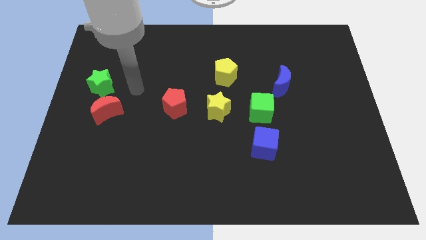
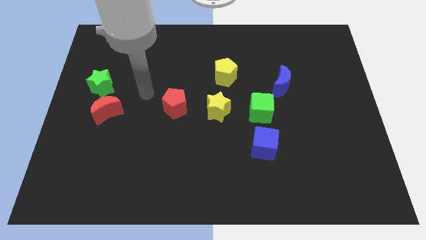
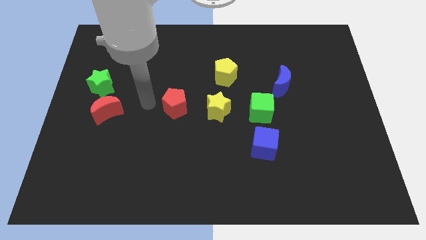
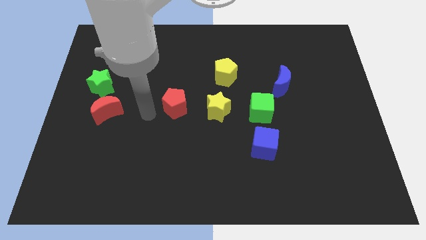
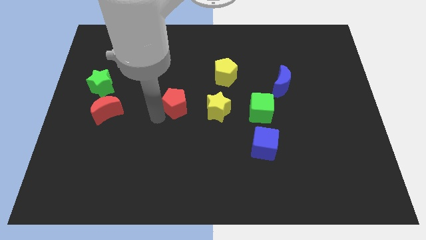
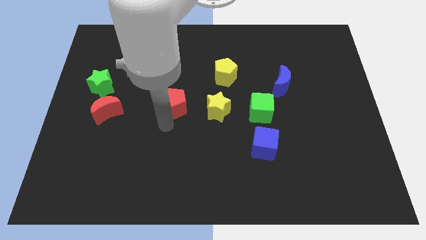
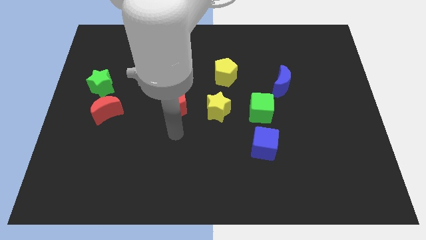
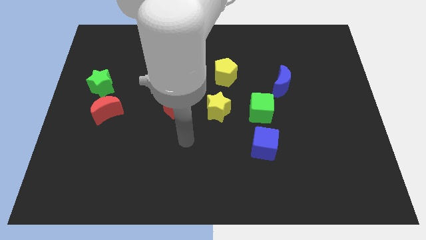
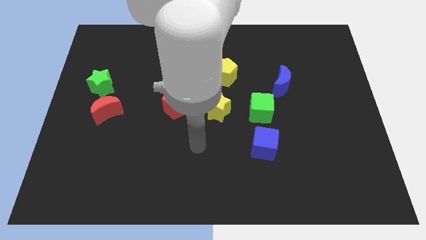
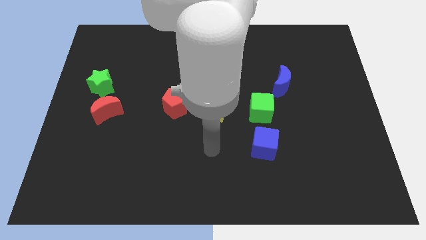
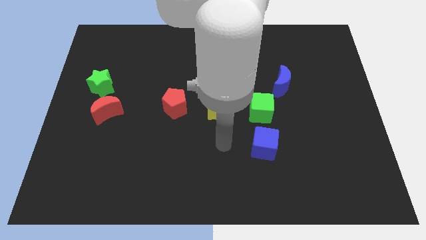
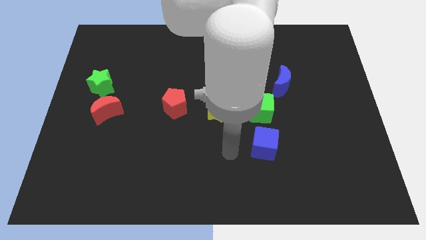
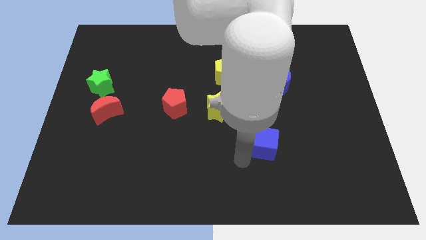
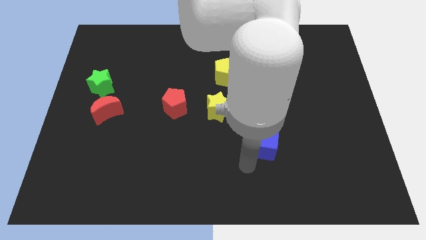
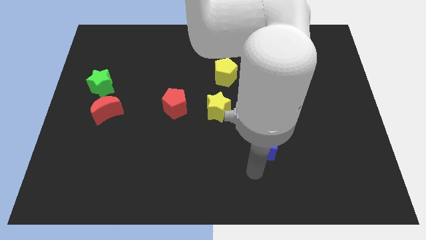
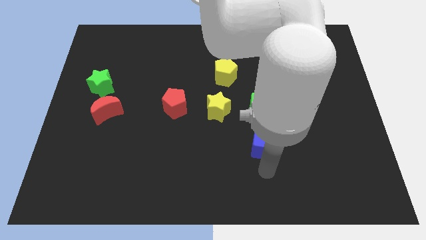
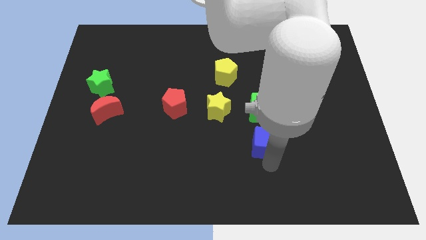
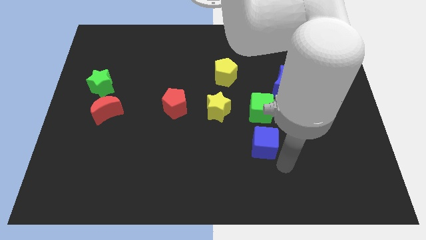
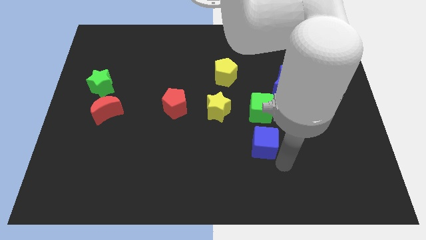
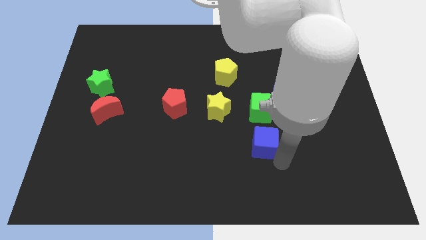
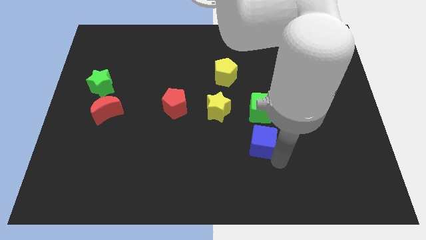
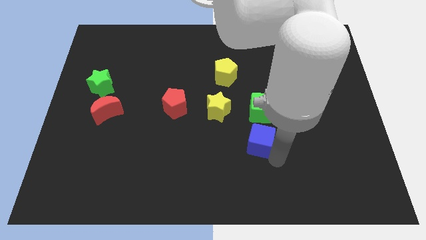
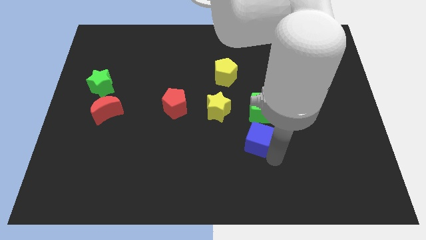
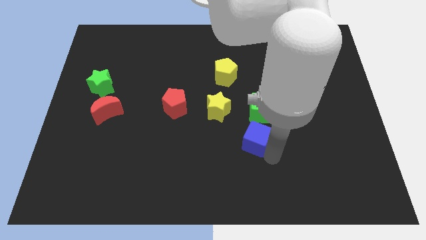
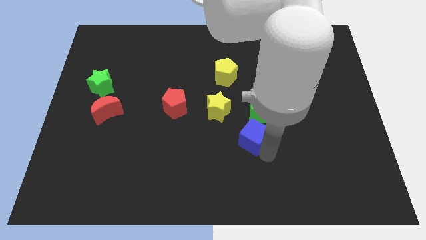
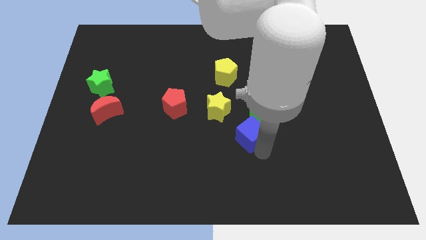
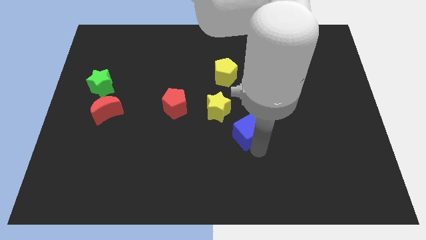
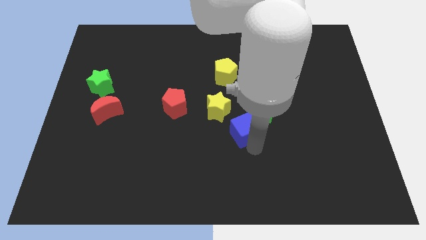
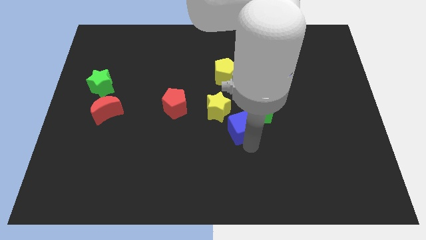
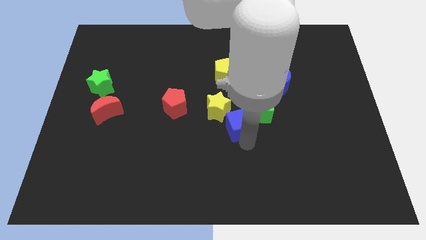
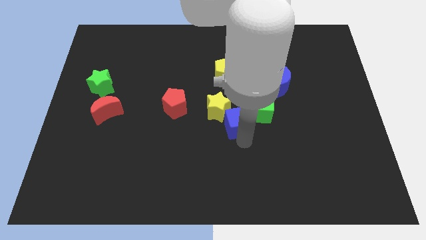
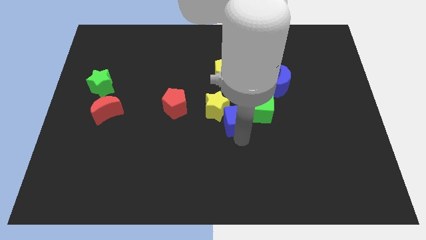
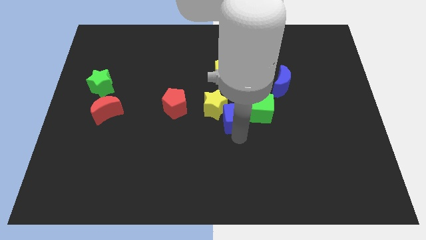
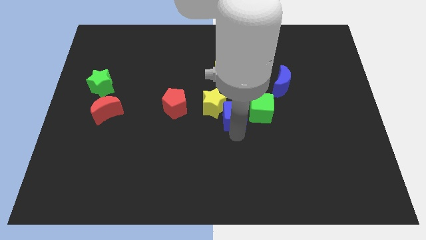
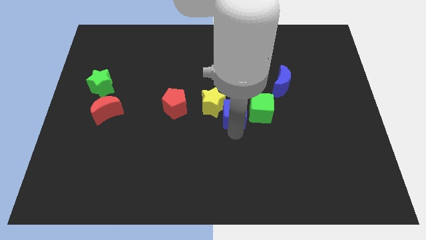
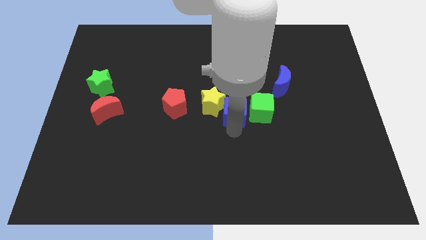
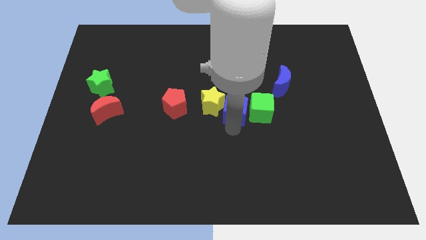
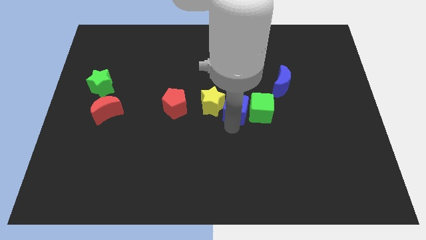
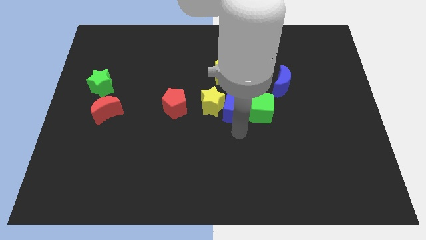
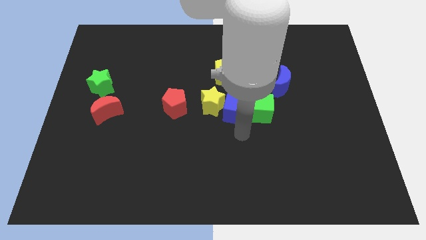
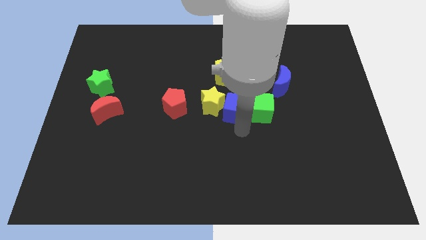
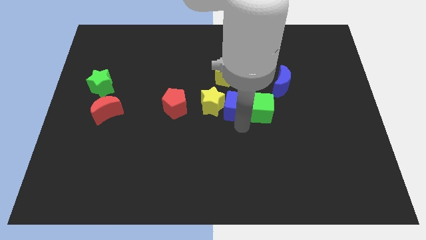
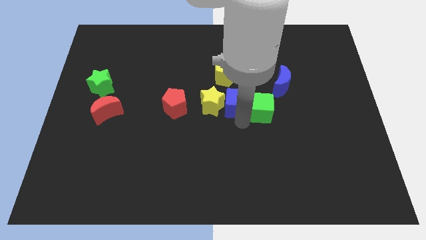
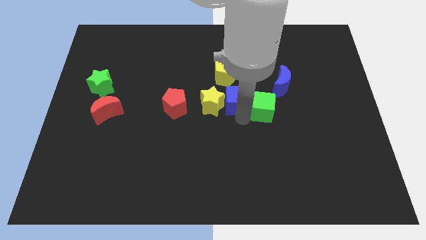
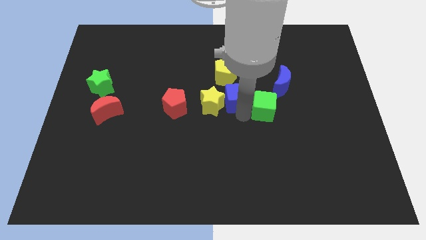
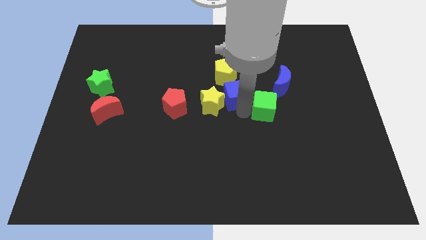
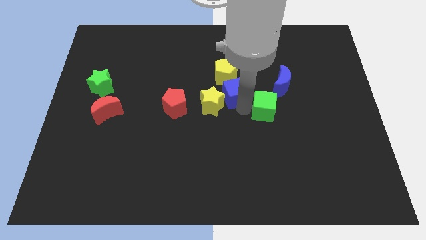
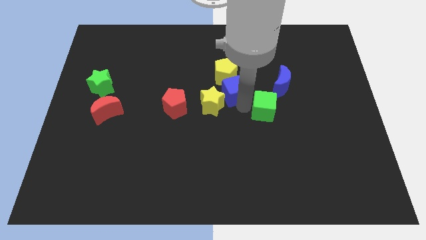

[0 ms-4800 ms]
push the blue cube close to the yellow pentagon

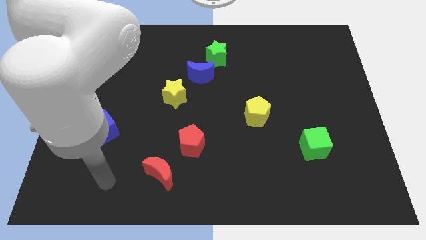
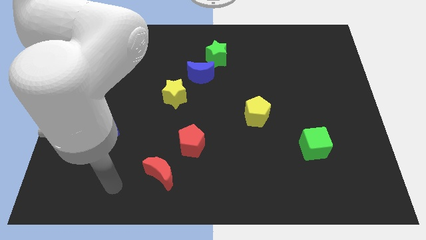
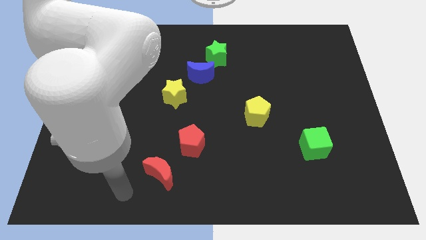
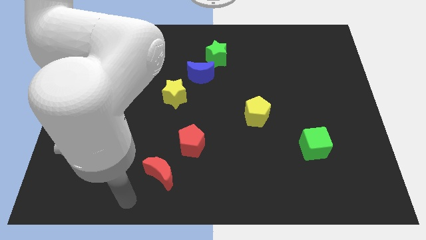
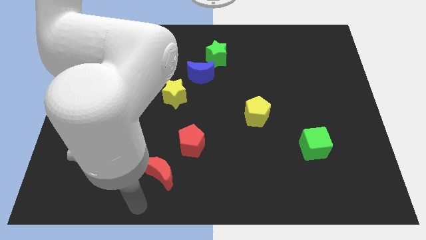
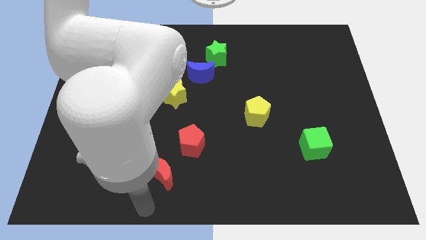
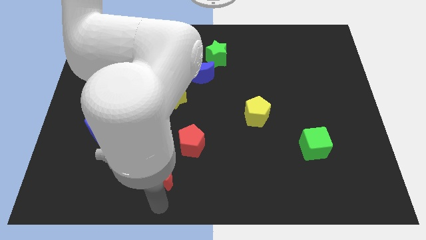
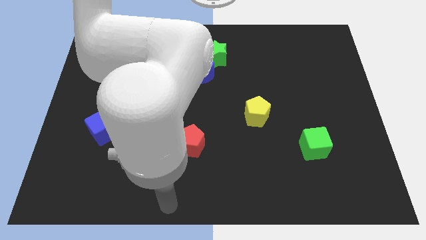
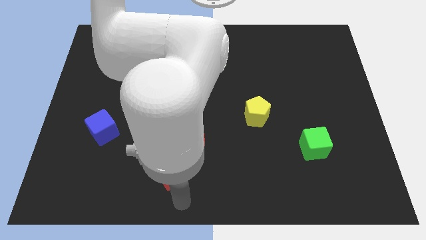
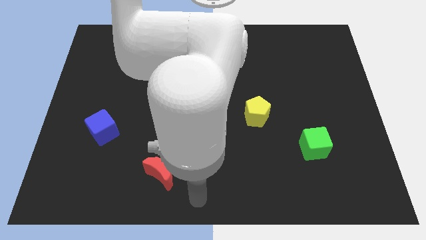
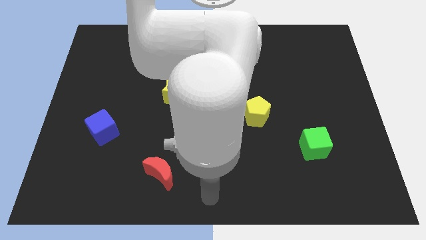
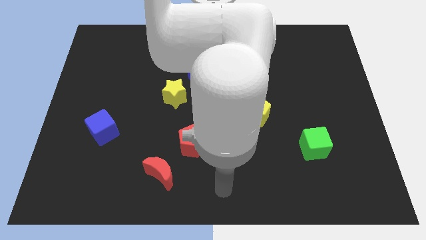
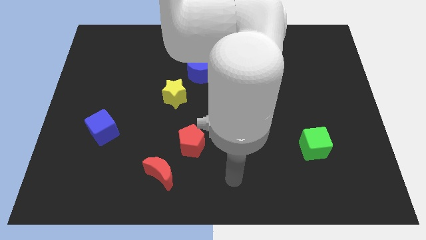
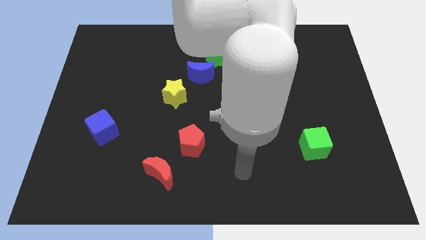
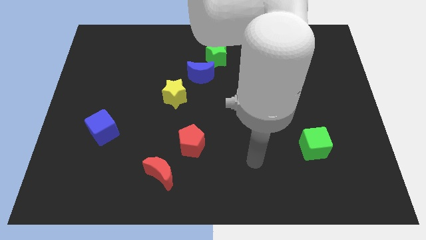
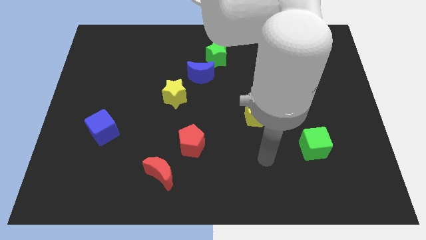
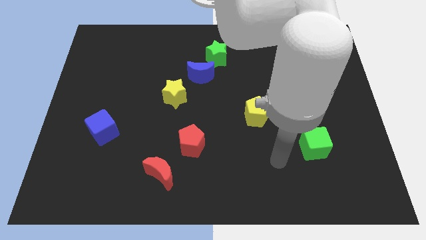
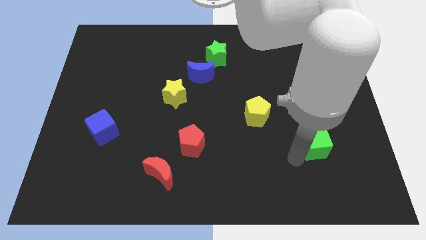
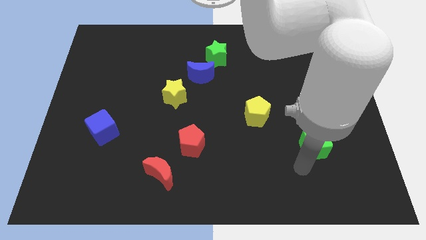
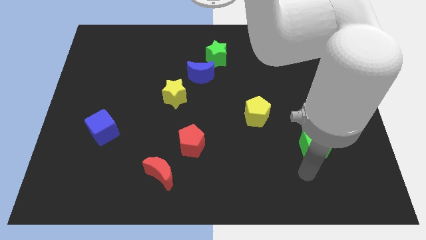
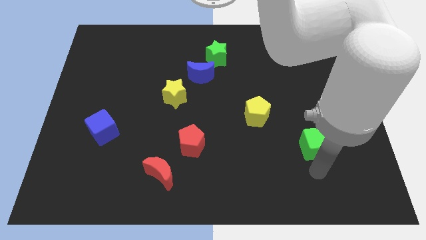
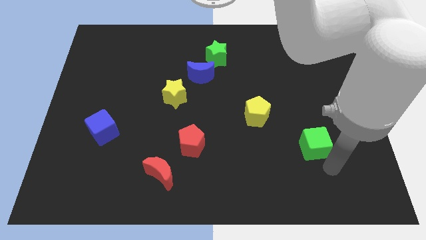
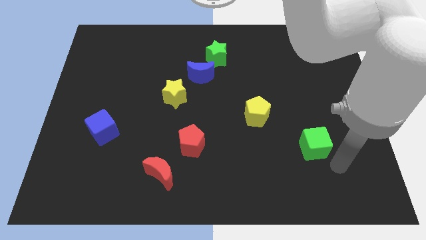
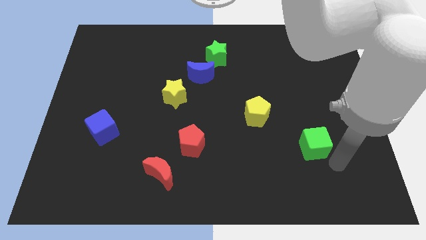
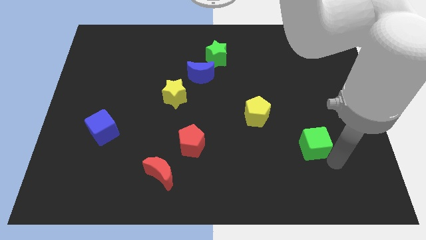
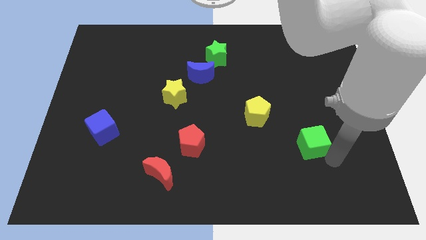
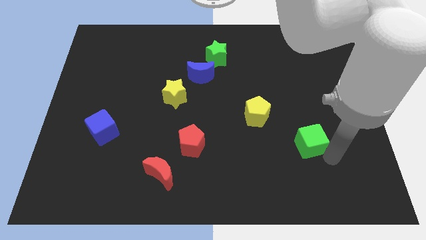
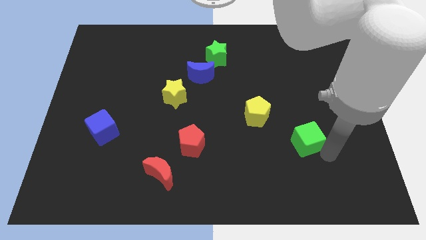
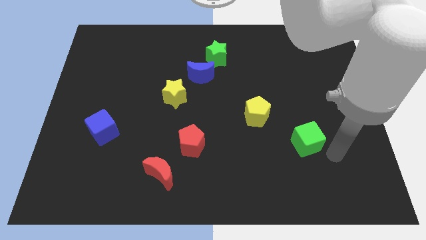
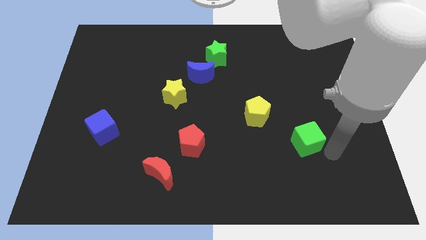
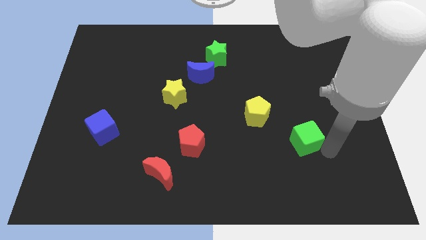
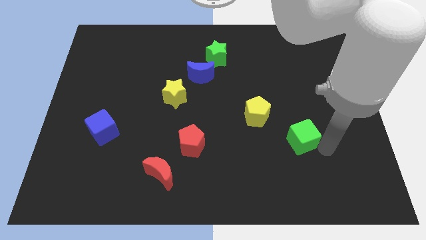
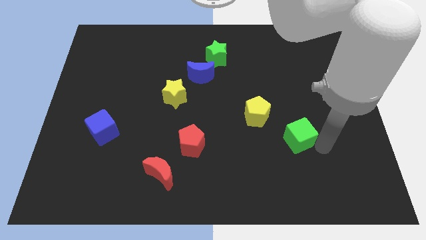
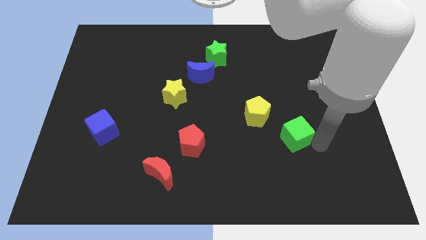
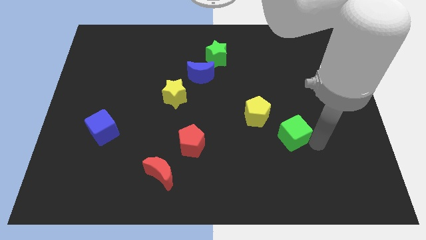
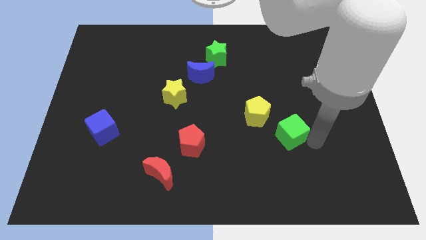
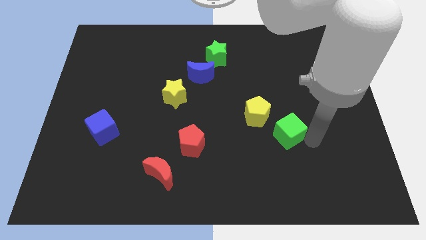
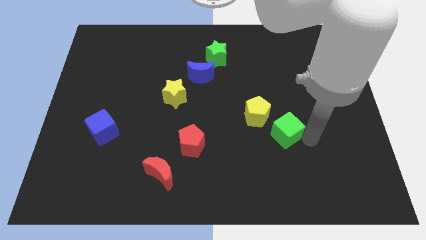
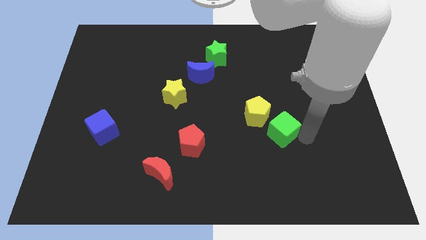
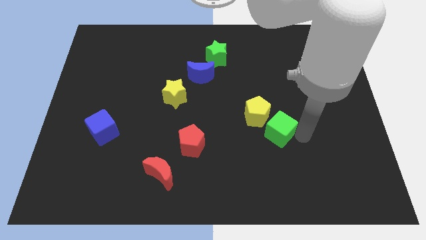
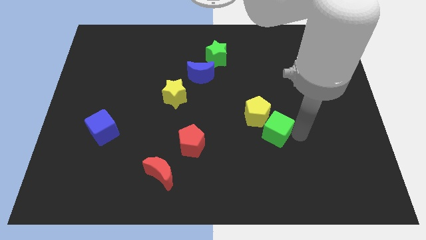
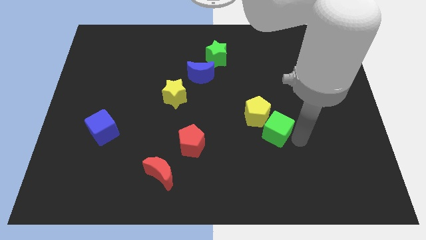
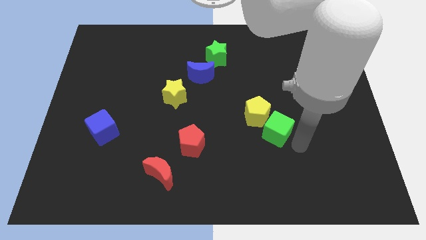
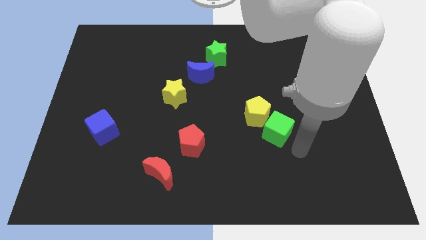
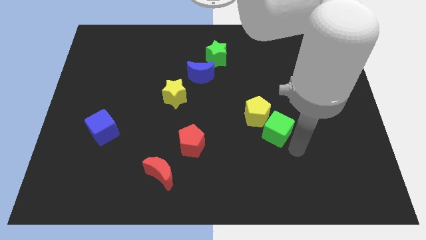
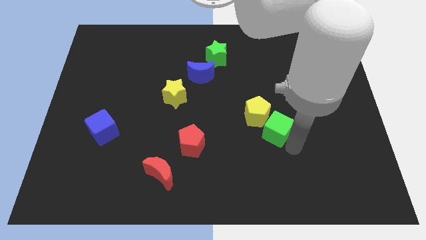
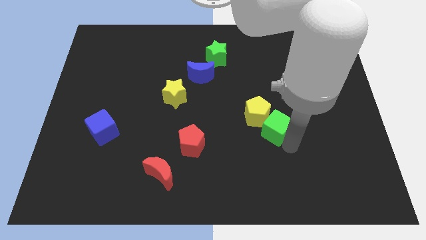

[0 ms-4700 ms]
put the green cube close to the yellow pentagon
